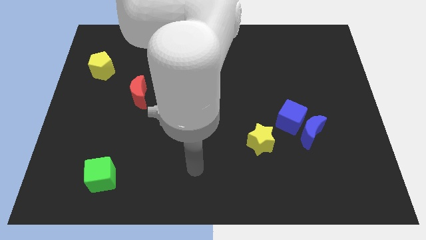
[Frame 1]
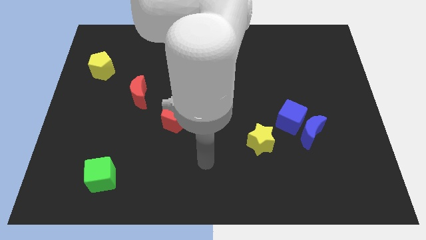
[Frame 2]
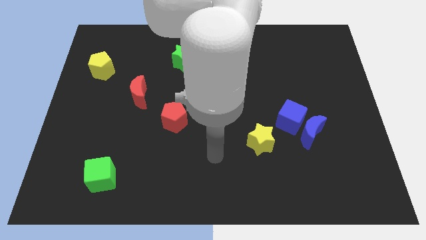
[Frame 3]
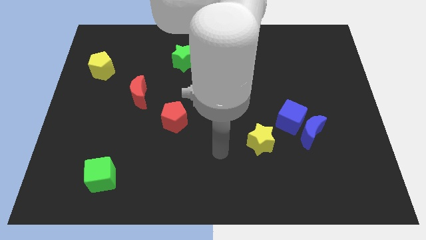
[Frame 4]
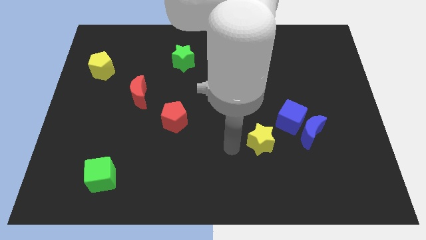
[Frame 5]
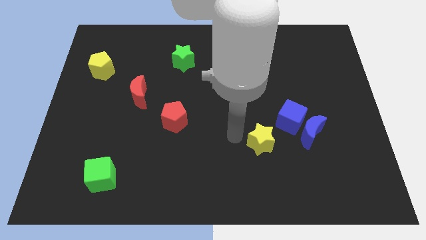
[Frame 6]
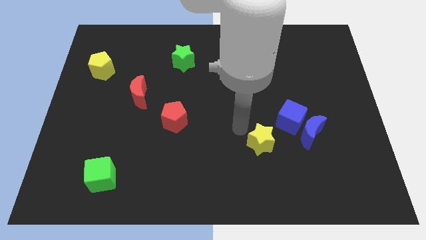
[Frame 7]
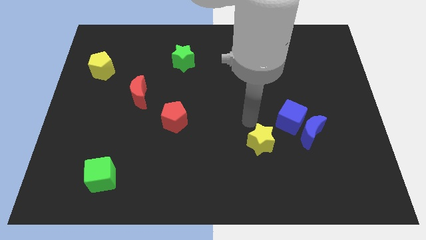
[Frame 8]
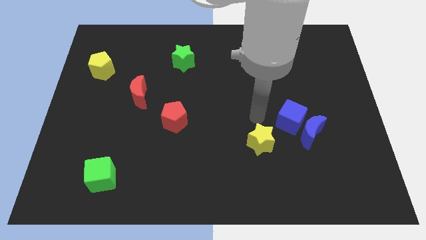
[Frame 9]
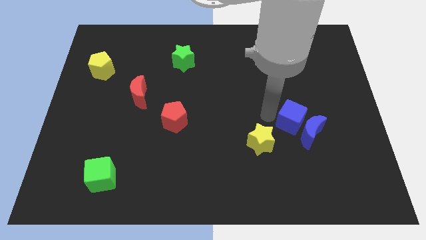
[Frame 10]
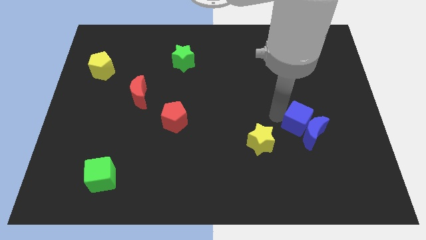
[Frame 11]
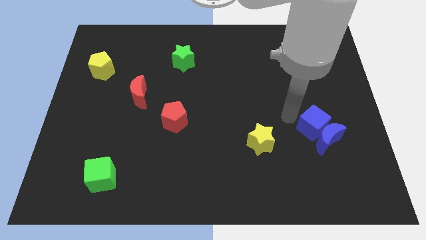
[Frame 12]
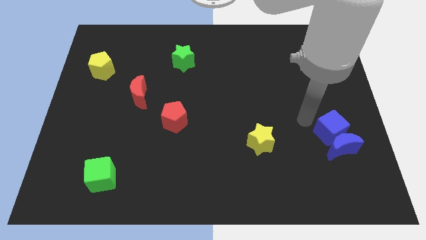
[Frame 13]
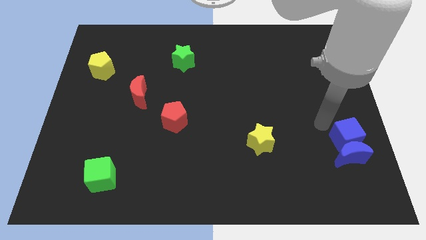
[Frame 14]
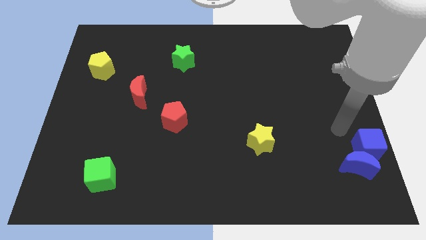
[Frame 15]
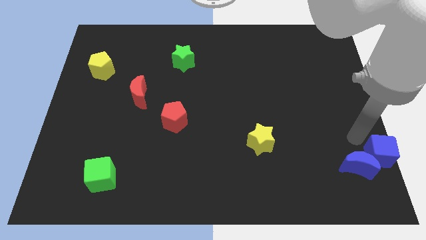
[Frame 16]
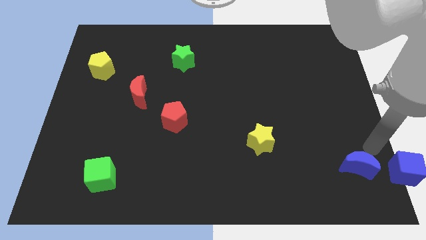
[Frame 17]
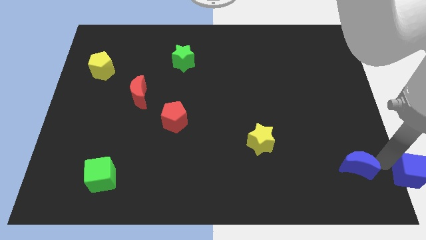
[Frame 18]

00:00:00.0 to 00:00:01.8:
pull the blue moon apart from the blue cube

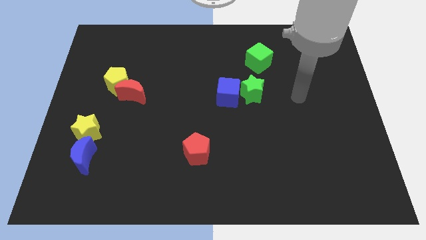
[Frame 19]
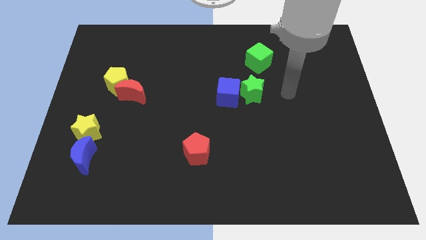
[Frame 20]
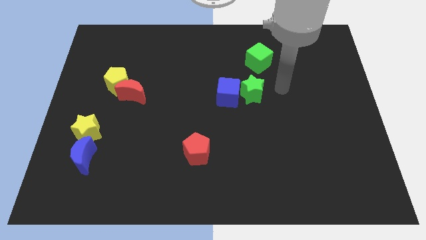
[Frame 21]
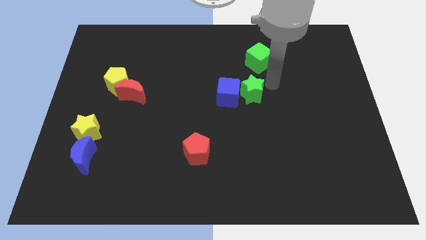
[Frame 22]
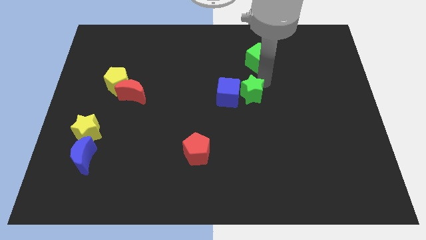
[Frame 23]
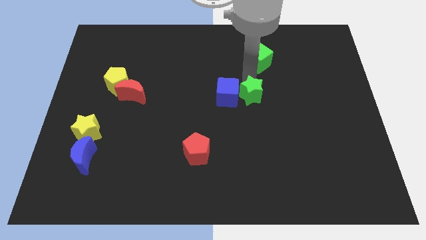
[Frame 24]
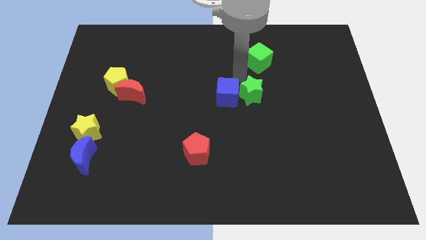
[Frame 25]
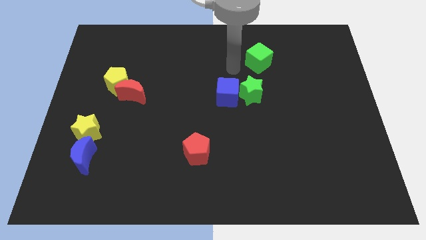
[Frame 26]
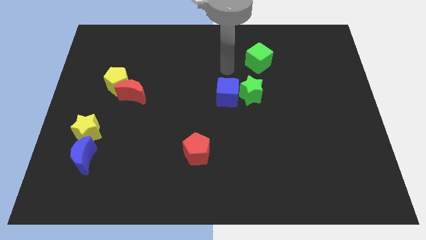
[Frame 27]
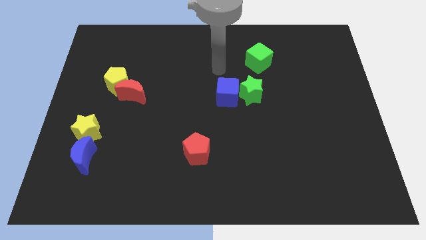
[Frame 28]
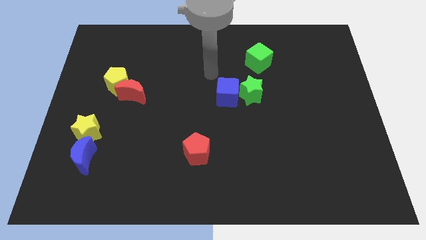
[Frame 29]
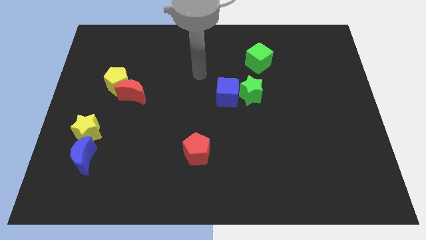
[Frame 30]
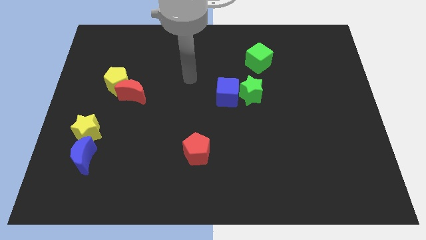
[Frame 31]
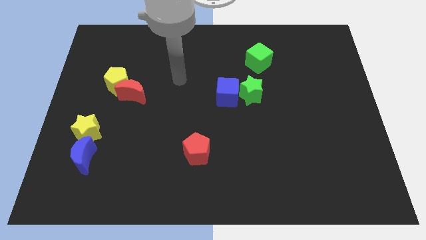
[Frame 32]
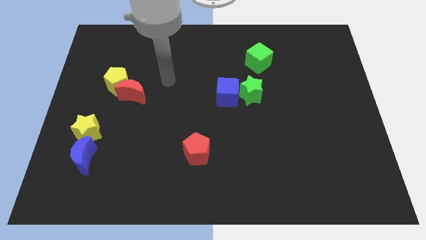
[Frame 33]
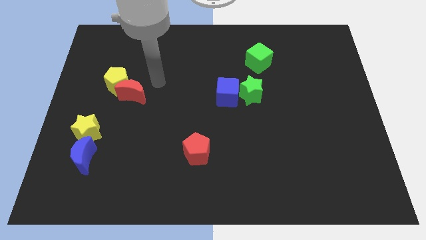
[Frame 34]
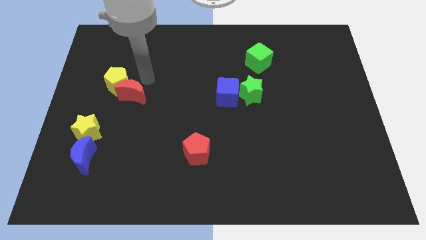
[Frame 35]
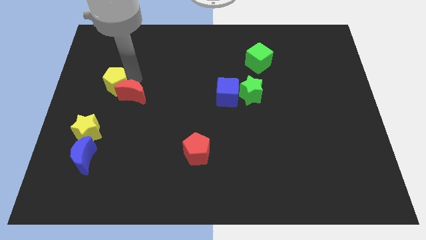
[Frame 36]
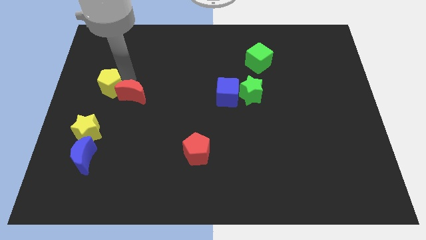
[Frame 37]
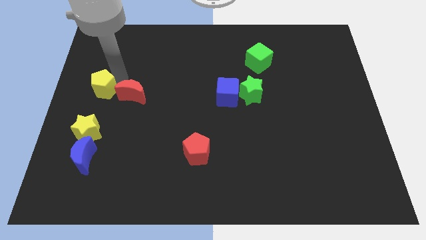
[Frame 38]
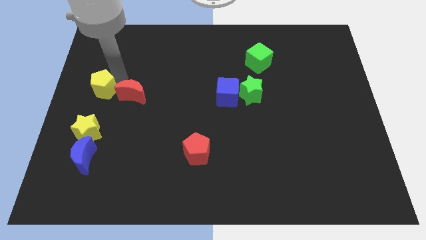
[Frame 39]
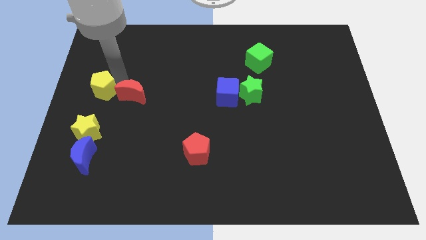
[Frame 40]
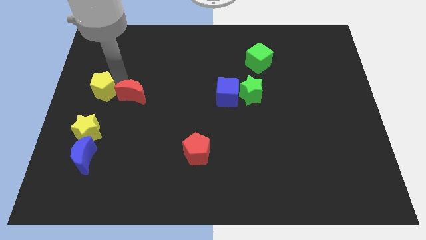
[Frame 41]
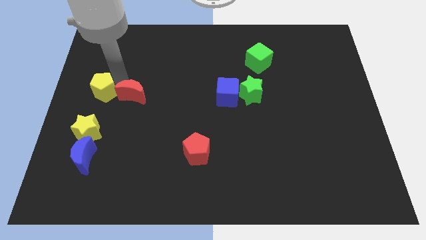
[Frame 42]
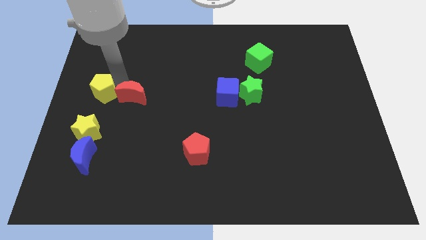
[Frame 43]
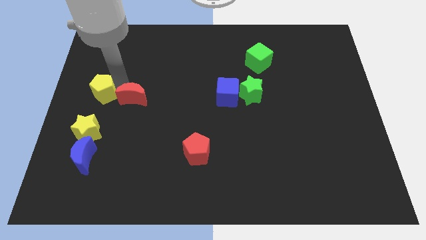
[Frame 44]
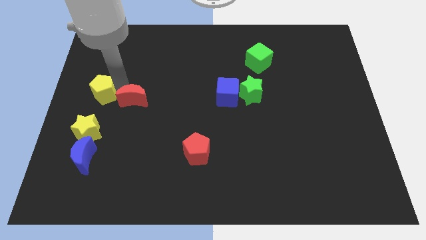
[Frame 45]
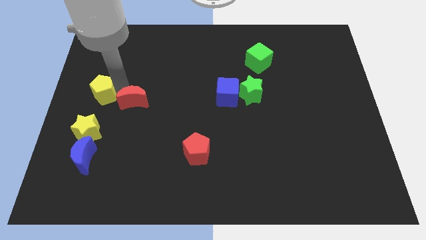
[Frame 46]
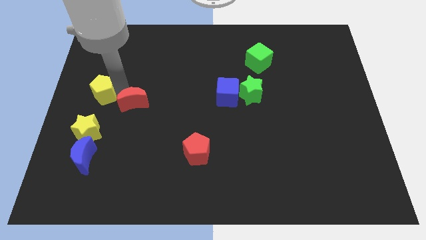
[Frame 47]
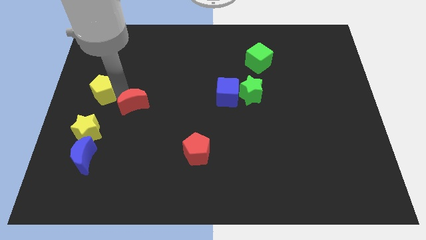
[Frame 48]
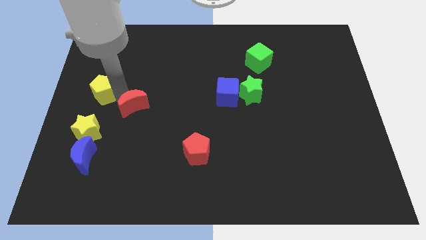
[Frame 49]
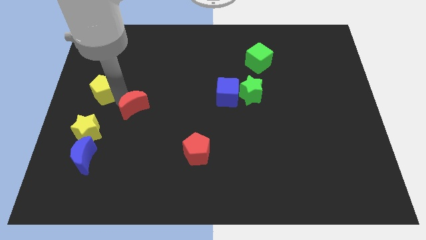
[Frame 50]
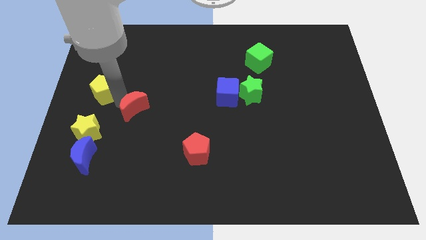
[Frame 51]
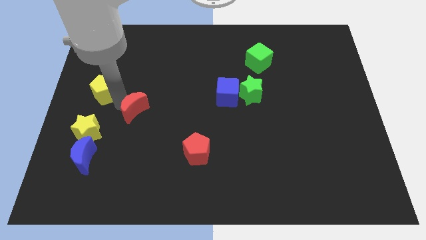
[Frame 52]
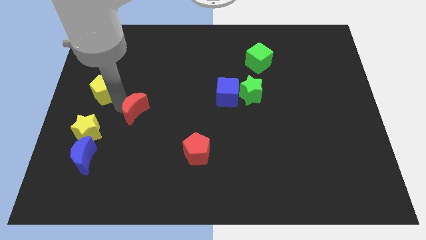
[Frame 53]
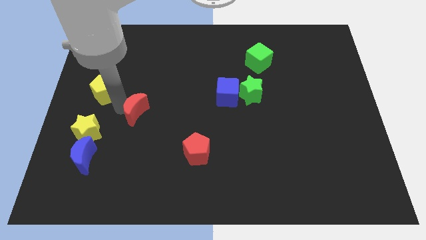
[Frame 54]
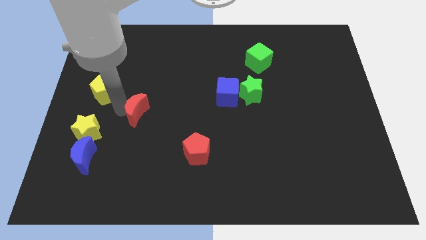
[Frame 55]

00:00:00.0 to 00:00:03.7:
separate the red moon from the yellow pentagon

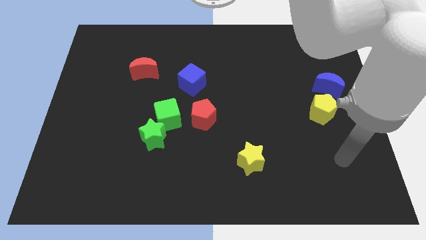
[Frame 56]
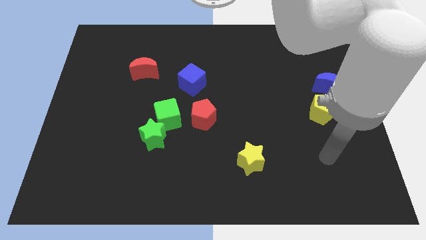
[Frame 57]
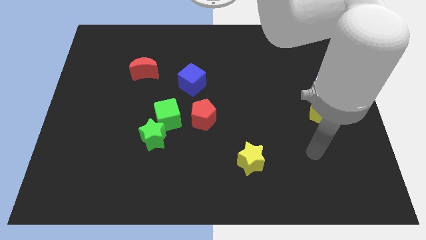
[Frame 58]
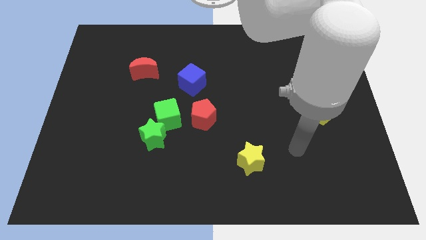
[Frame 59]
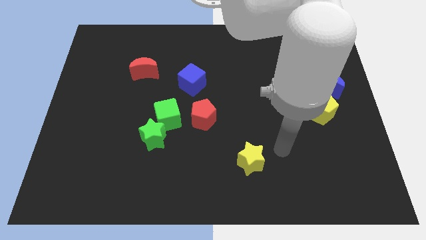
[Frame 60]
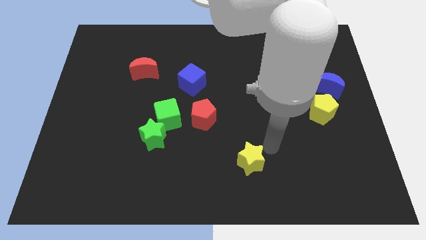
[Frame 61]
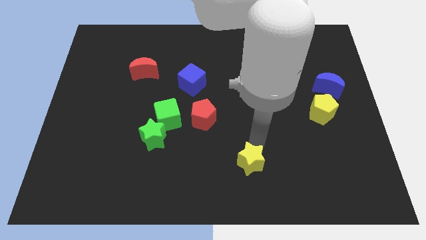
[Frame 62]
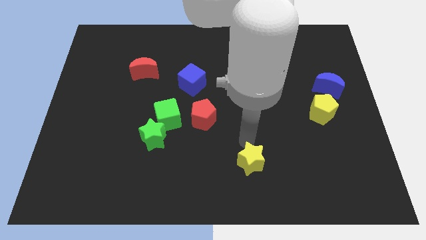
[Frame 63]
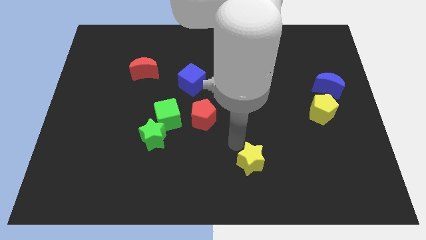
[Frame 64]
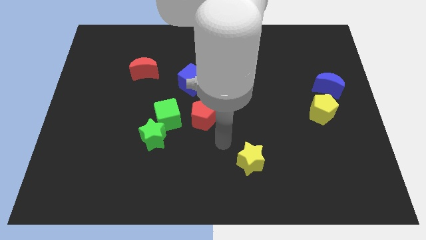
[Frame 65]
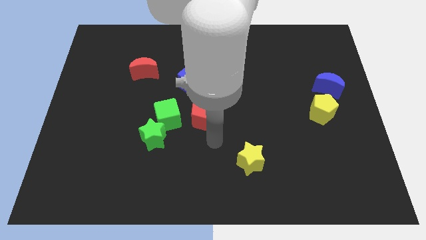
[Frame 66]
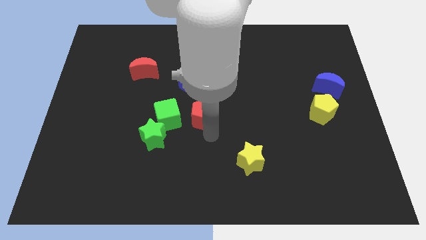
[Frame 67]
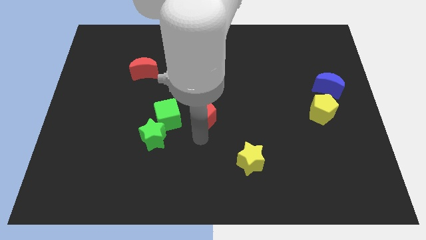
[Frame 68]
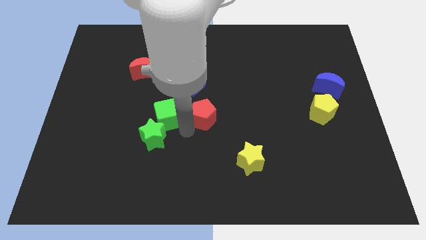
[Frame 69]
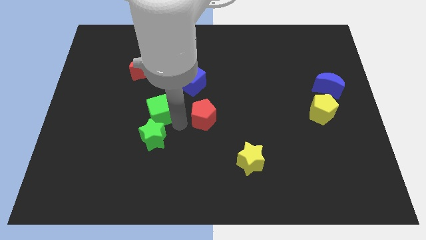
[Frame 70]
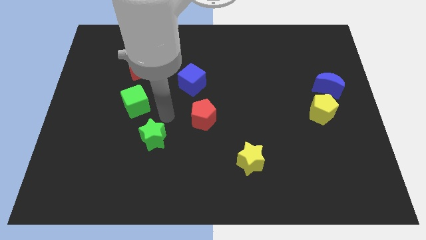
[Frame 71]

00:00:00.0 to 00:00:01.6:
pull the green star apart from the green cube

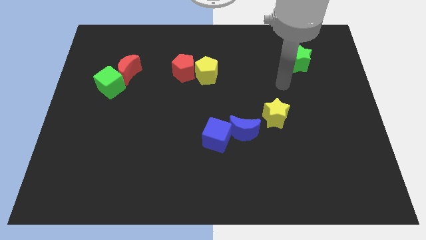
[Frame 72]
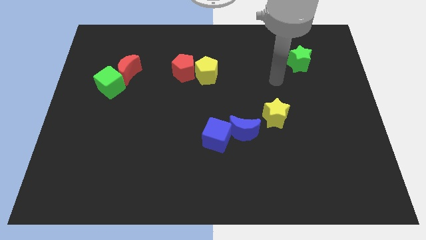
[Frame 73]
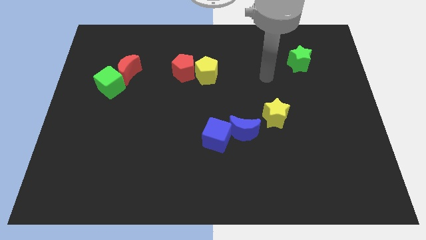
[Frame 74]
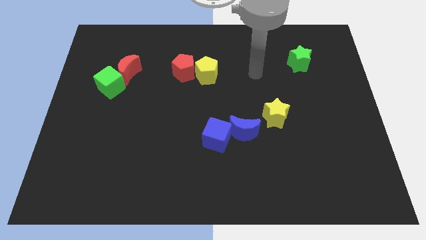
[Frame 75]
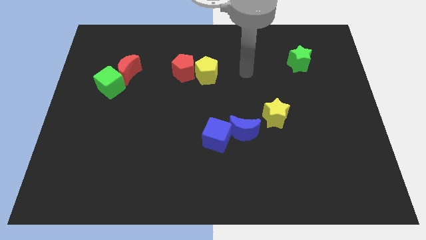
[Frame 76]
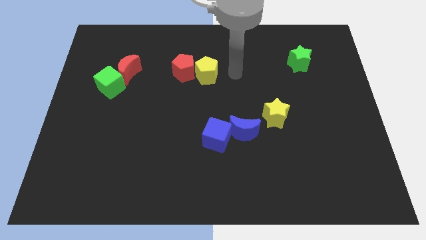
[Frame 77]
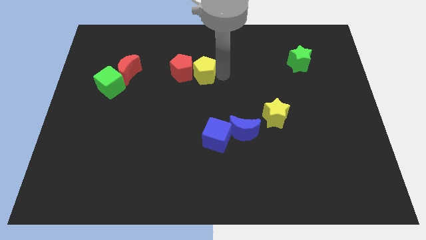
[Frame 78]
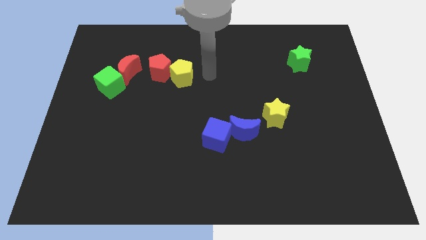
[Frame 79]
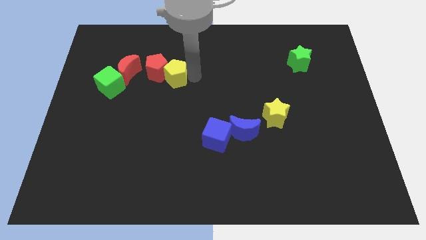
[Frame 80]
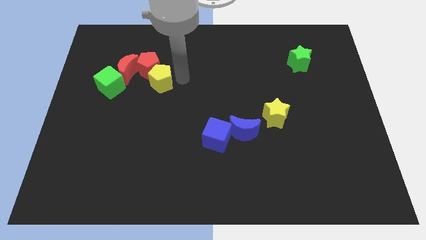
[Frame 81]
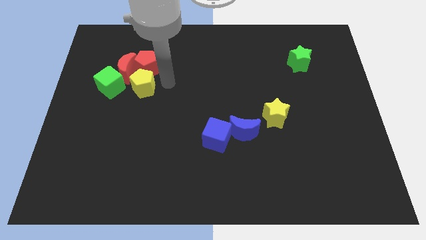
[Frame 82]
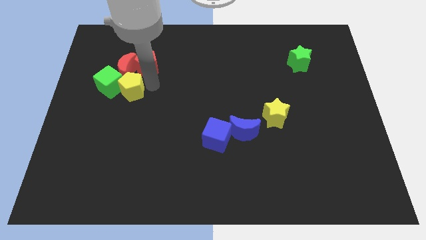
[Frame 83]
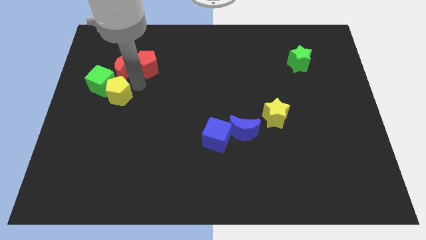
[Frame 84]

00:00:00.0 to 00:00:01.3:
pull the red pentagon apart from the yellow pentagon

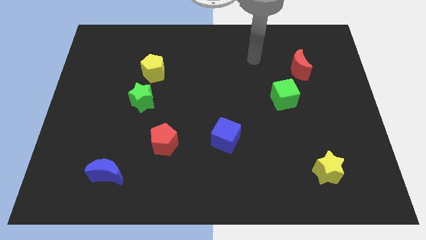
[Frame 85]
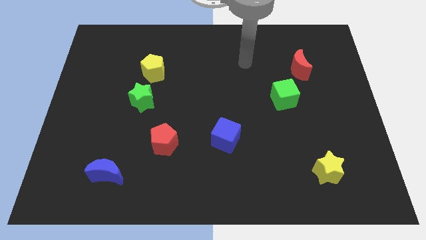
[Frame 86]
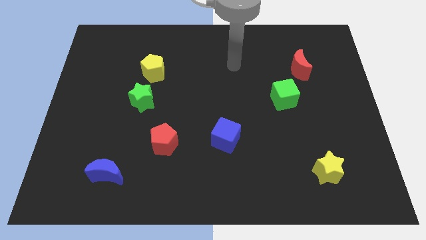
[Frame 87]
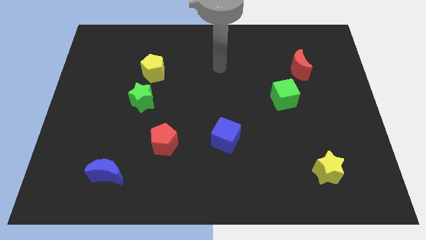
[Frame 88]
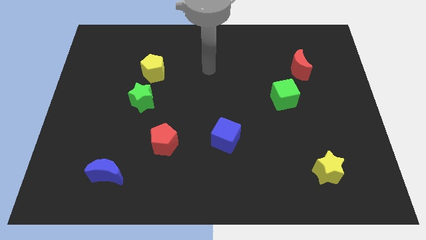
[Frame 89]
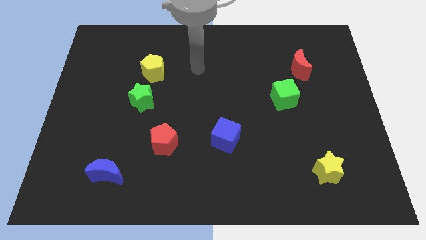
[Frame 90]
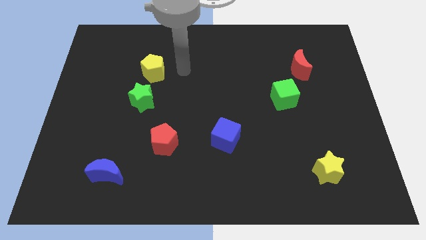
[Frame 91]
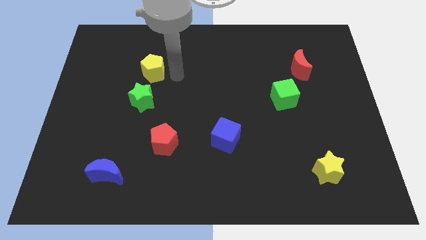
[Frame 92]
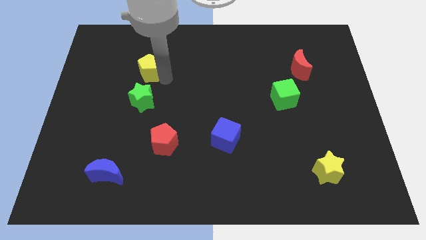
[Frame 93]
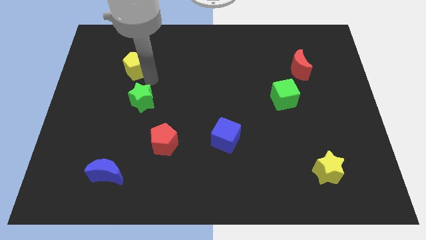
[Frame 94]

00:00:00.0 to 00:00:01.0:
move the green star away from the yellow pentagon
